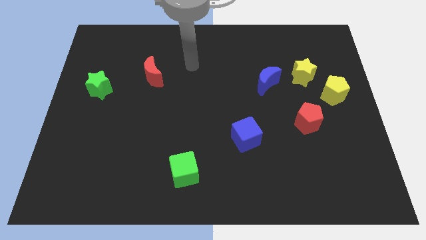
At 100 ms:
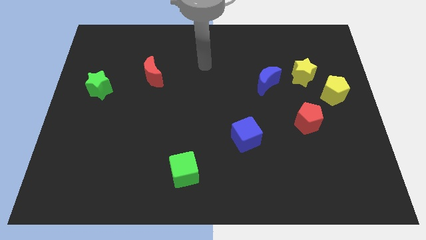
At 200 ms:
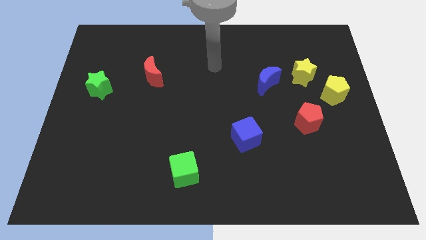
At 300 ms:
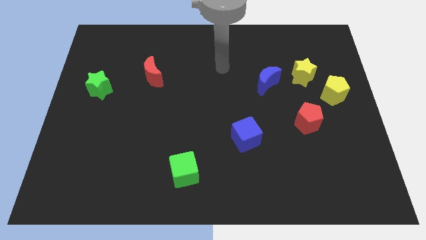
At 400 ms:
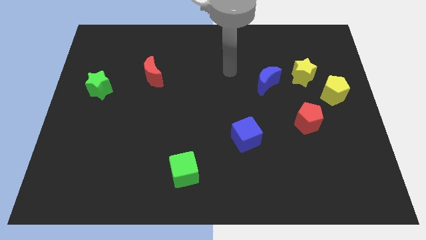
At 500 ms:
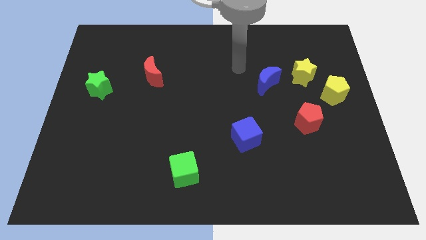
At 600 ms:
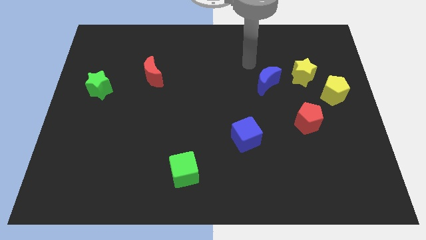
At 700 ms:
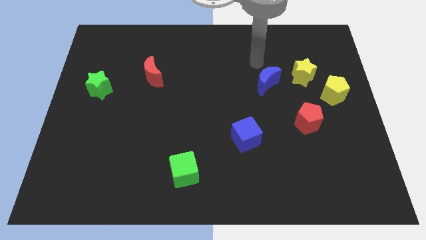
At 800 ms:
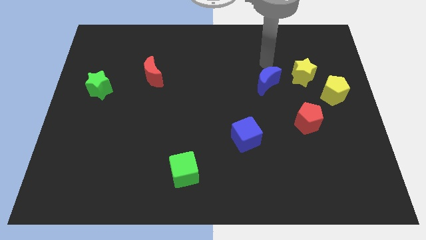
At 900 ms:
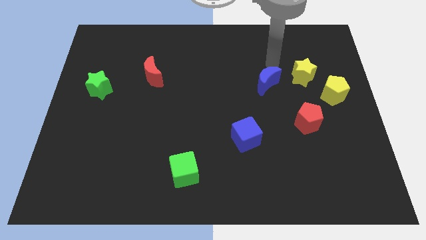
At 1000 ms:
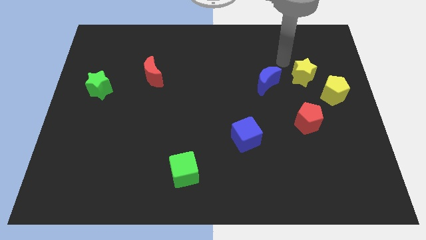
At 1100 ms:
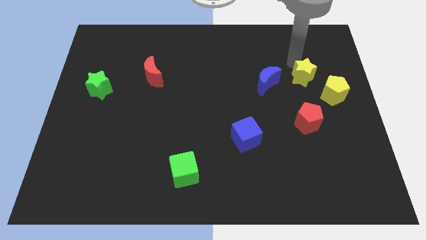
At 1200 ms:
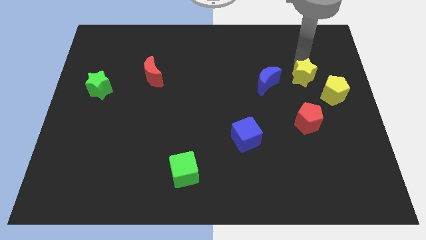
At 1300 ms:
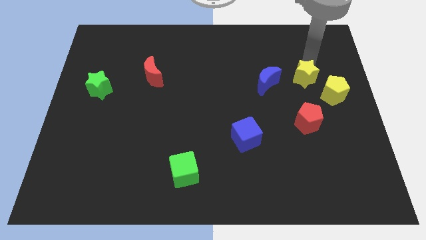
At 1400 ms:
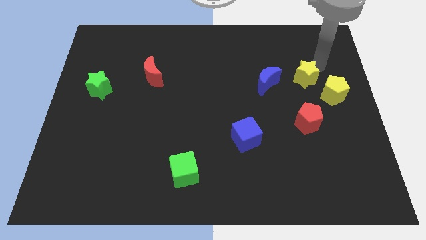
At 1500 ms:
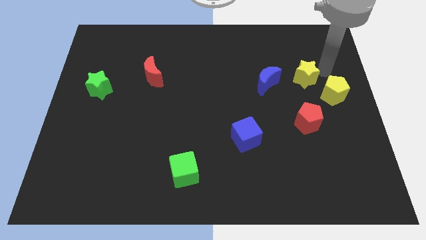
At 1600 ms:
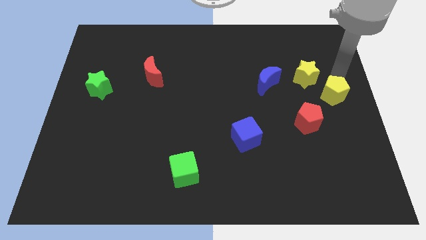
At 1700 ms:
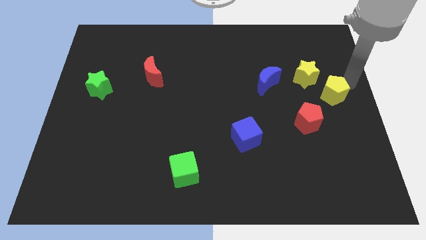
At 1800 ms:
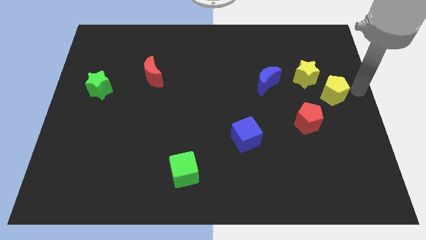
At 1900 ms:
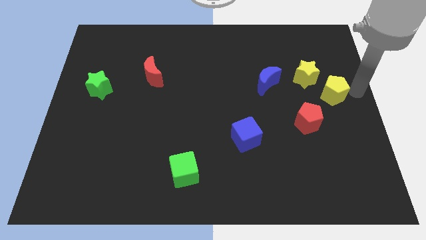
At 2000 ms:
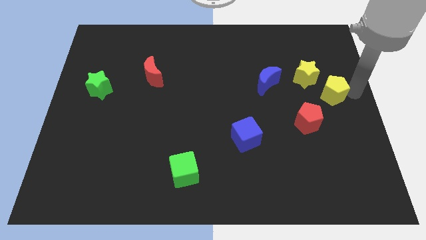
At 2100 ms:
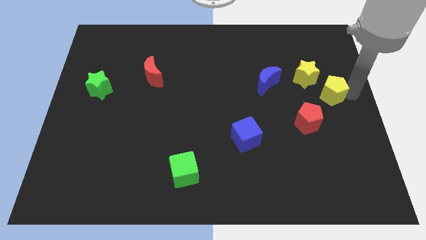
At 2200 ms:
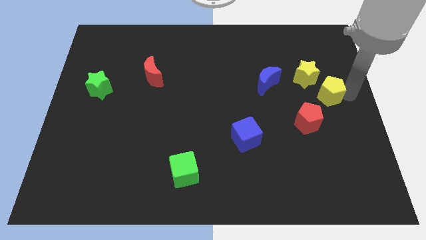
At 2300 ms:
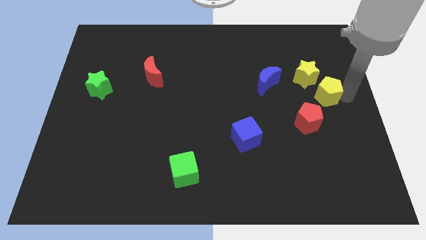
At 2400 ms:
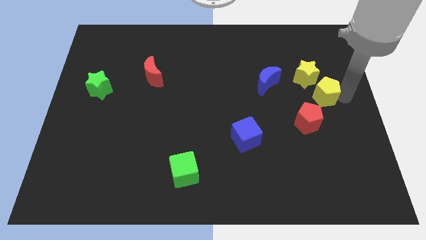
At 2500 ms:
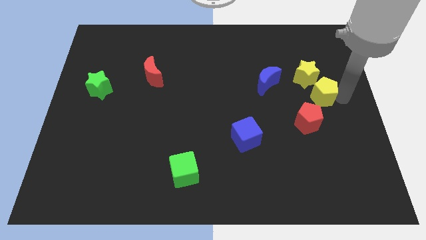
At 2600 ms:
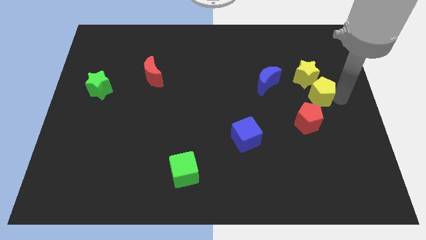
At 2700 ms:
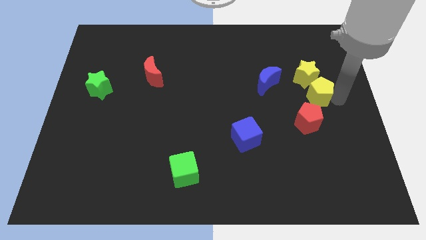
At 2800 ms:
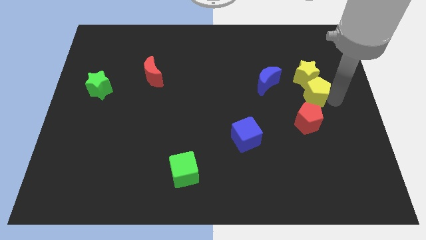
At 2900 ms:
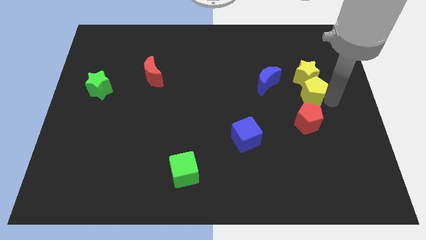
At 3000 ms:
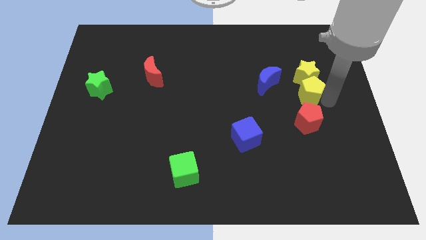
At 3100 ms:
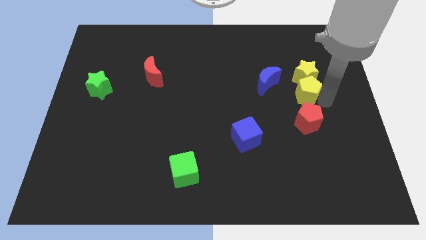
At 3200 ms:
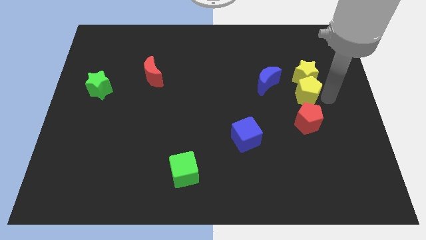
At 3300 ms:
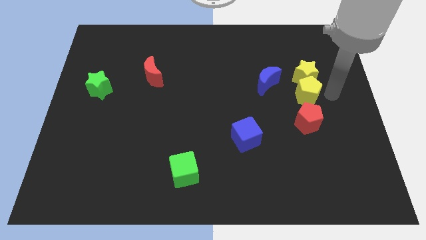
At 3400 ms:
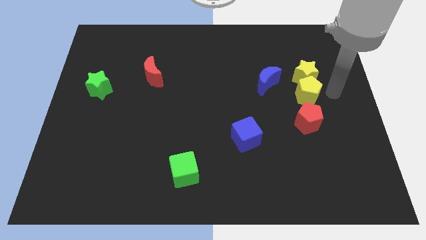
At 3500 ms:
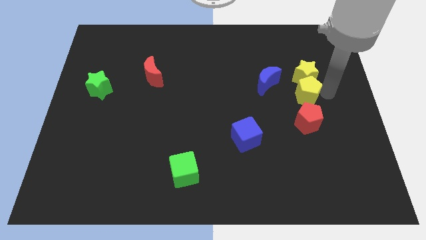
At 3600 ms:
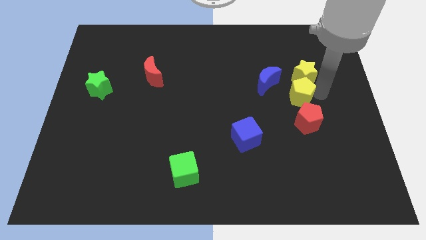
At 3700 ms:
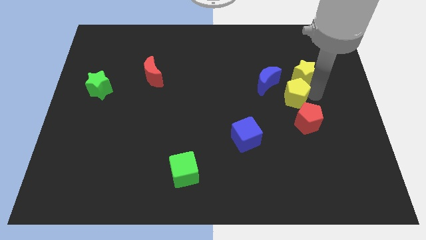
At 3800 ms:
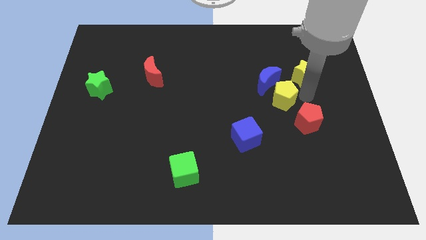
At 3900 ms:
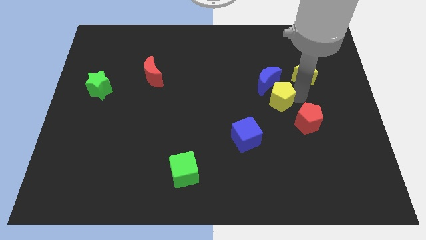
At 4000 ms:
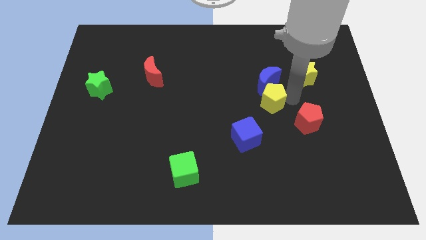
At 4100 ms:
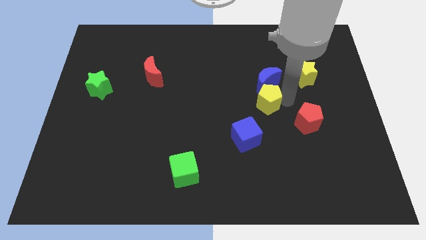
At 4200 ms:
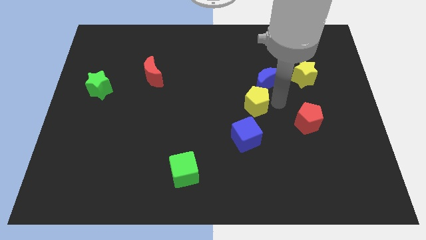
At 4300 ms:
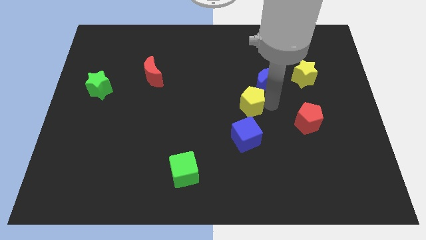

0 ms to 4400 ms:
push the yellow pentagon to the left

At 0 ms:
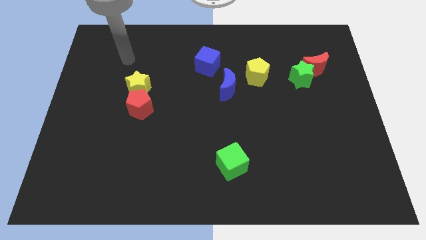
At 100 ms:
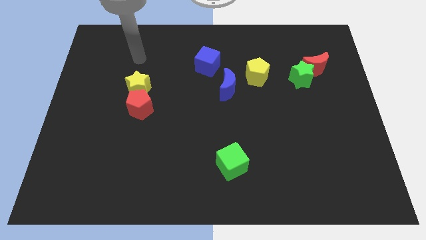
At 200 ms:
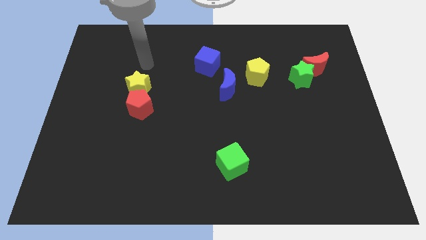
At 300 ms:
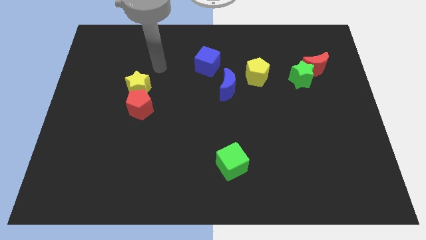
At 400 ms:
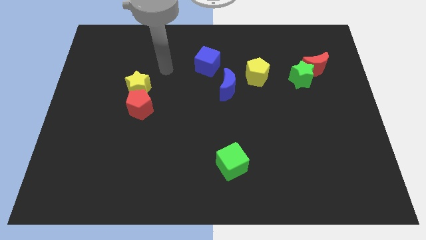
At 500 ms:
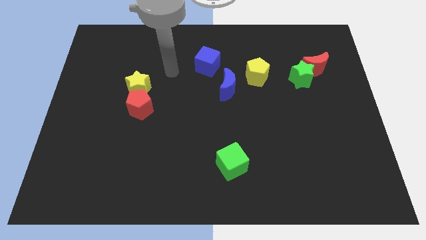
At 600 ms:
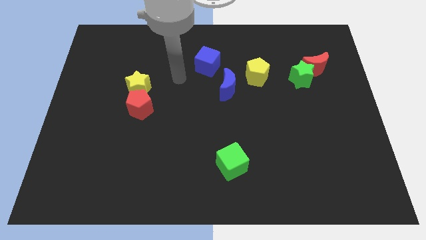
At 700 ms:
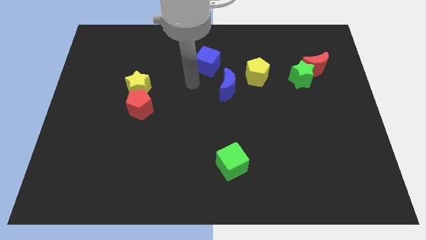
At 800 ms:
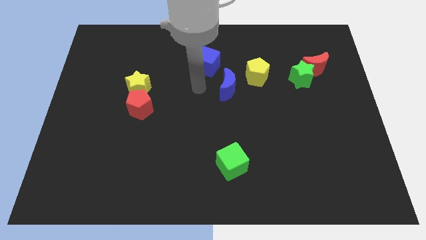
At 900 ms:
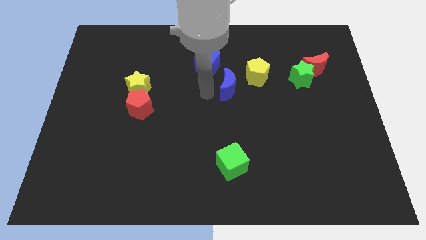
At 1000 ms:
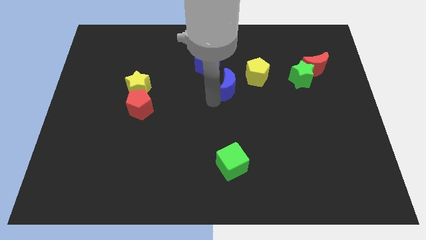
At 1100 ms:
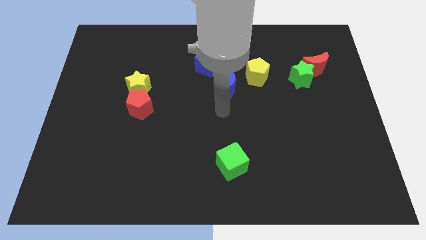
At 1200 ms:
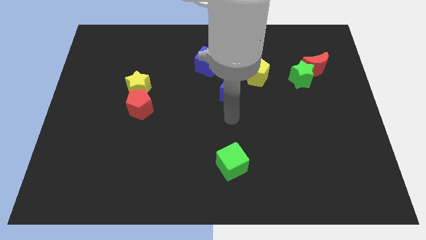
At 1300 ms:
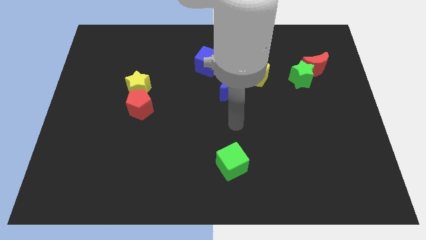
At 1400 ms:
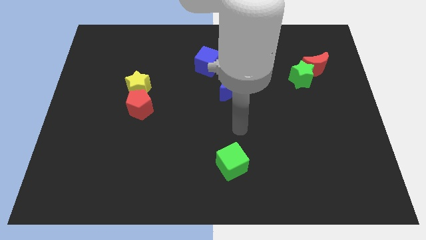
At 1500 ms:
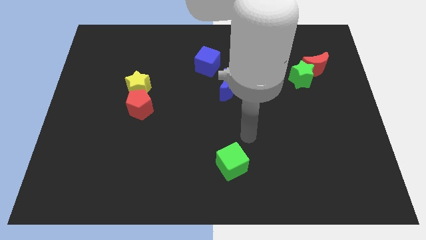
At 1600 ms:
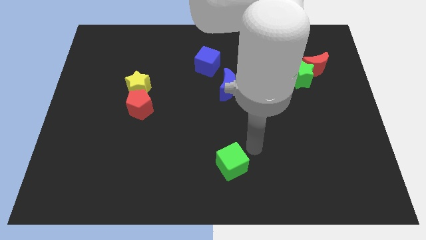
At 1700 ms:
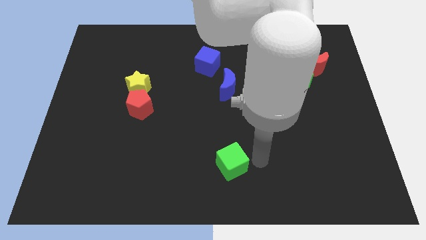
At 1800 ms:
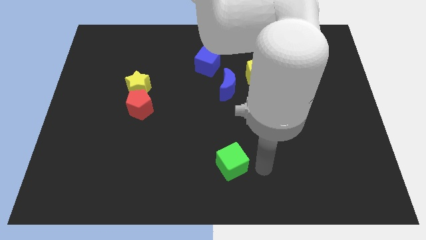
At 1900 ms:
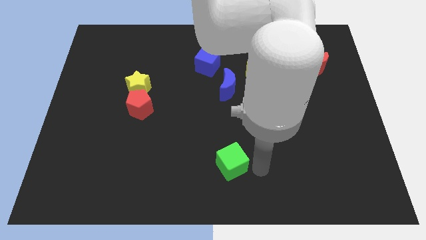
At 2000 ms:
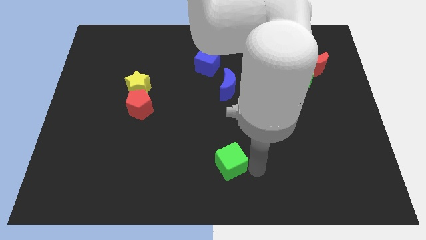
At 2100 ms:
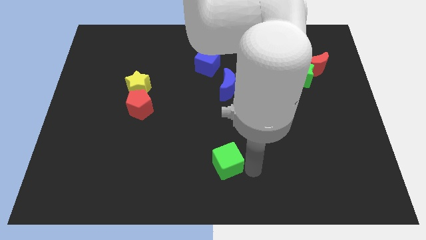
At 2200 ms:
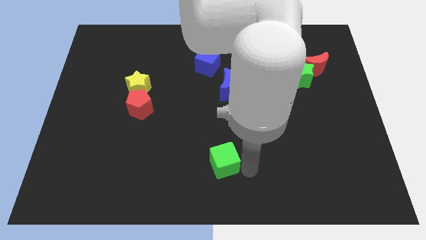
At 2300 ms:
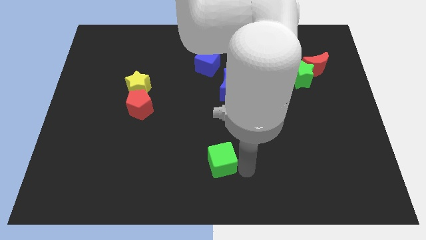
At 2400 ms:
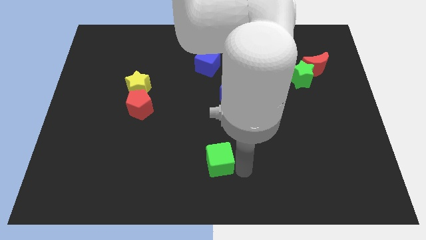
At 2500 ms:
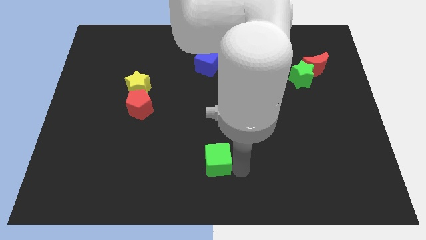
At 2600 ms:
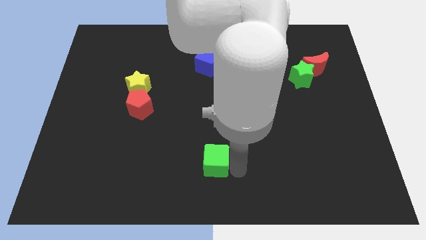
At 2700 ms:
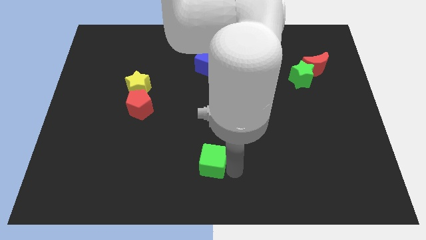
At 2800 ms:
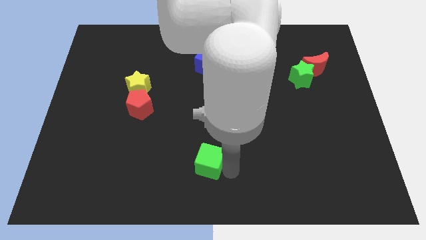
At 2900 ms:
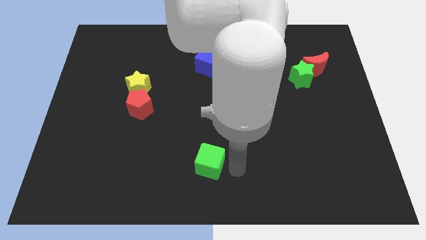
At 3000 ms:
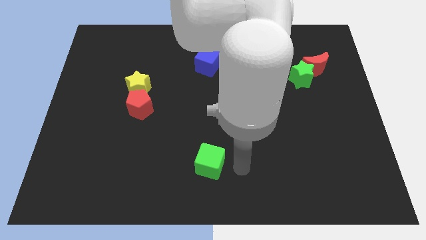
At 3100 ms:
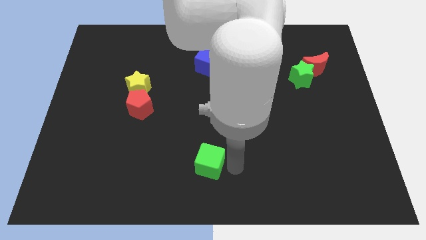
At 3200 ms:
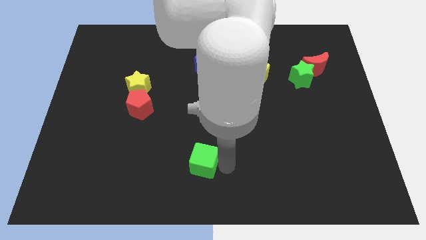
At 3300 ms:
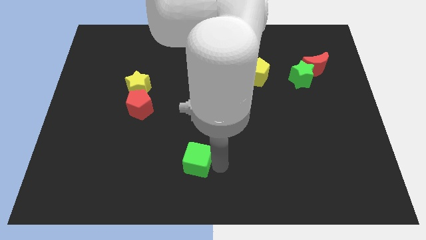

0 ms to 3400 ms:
move the green cube a bit left
